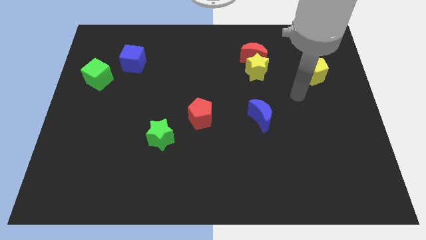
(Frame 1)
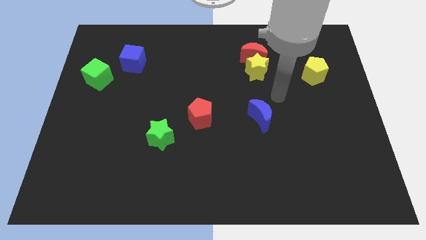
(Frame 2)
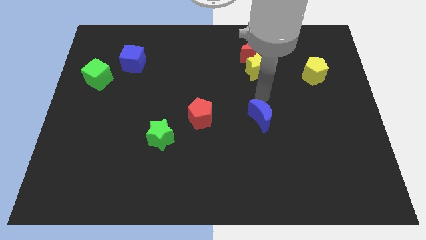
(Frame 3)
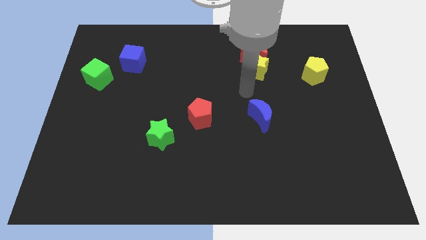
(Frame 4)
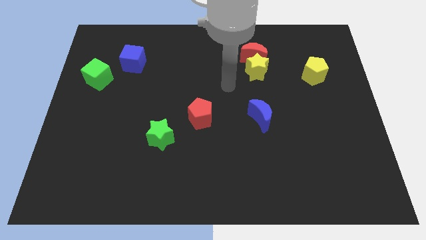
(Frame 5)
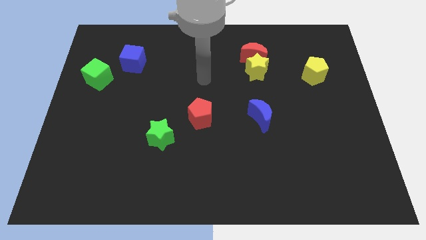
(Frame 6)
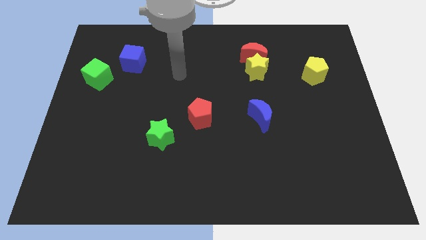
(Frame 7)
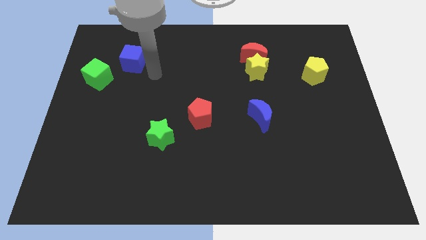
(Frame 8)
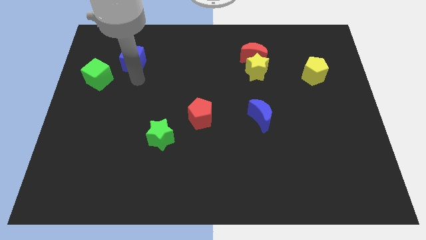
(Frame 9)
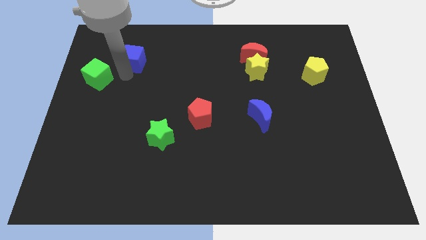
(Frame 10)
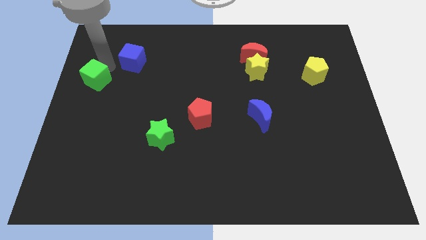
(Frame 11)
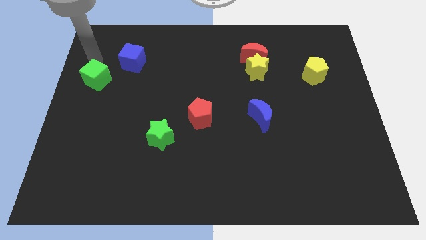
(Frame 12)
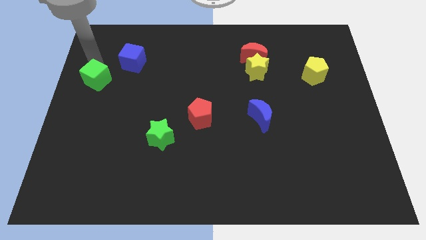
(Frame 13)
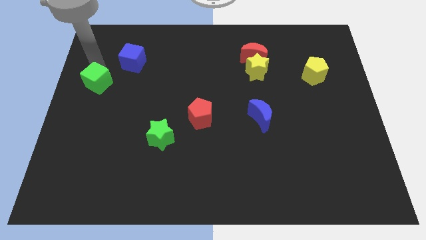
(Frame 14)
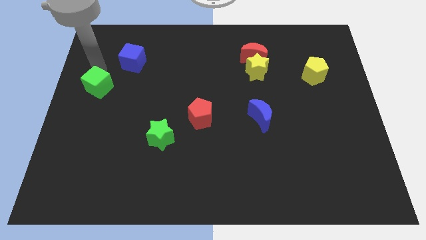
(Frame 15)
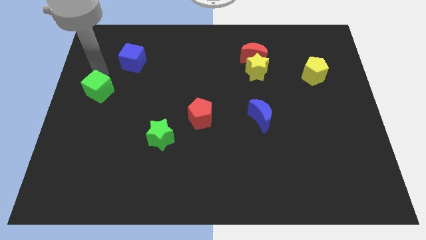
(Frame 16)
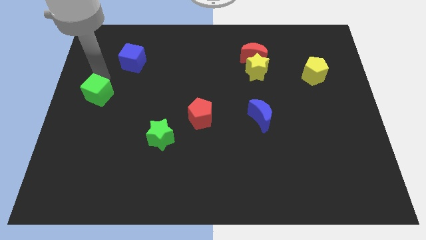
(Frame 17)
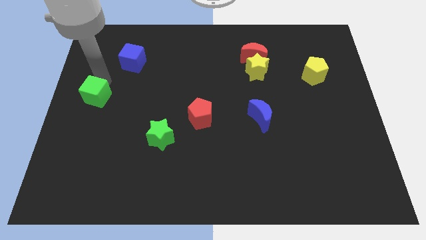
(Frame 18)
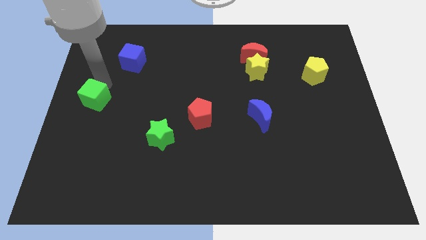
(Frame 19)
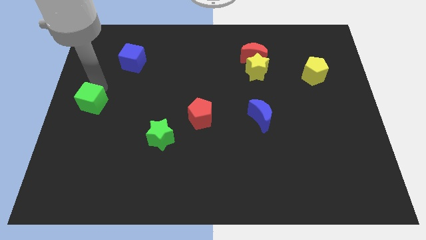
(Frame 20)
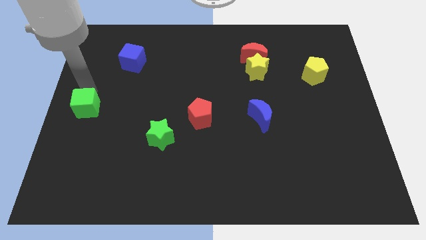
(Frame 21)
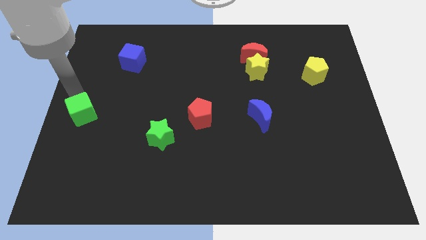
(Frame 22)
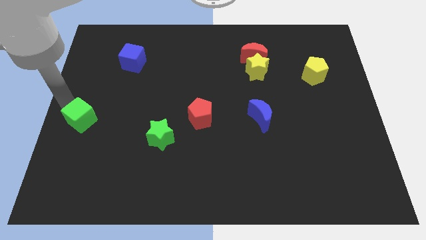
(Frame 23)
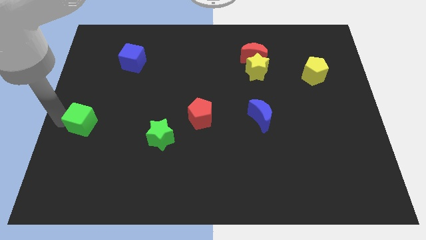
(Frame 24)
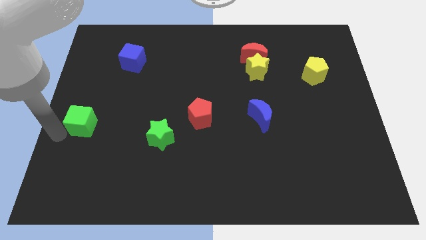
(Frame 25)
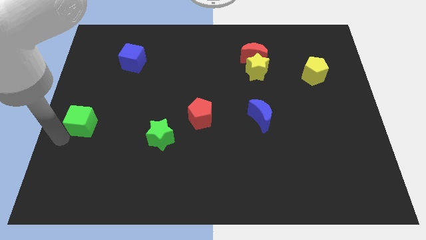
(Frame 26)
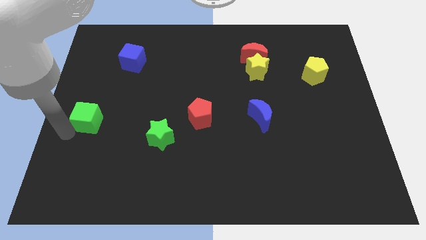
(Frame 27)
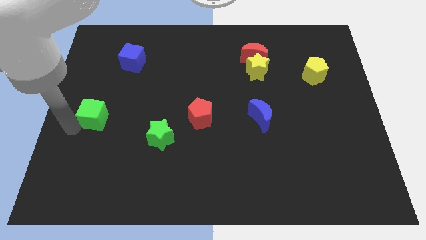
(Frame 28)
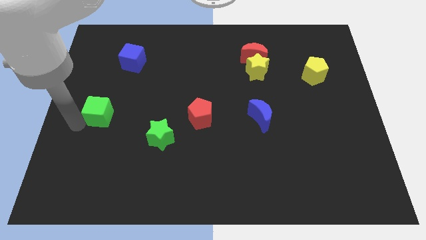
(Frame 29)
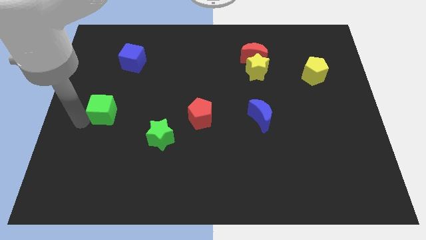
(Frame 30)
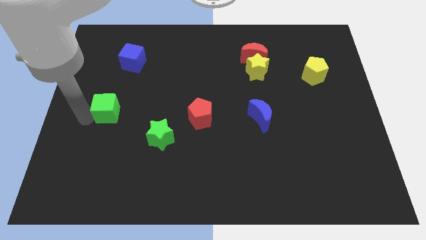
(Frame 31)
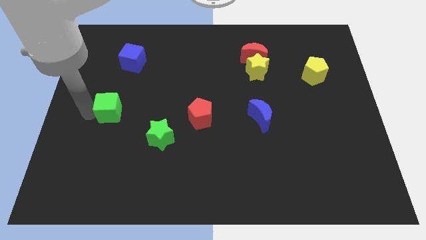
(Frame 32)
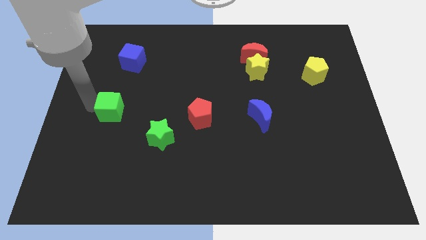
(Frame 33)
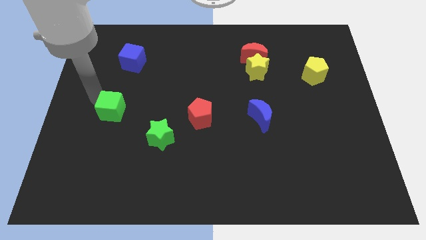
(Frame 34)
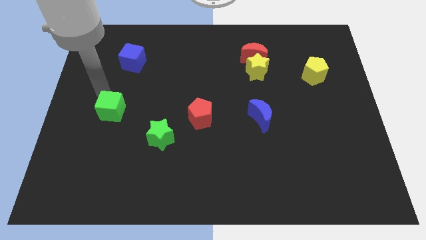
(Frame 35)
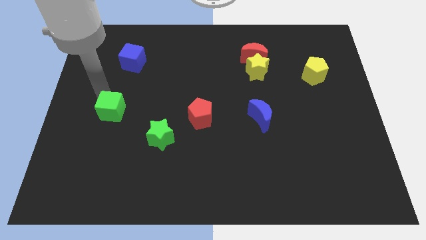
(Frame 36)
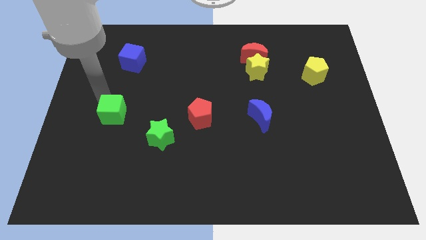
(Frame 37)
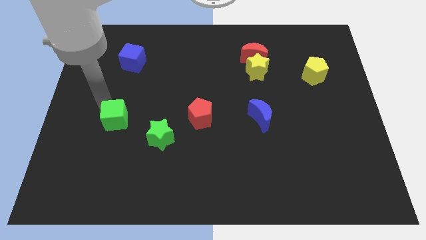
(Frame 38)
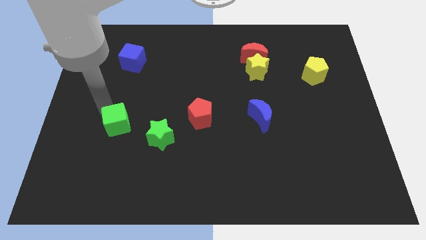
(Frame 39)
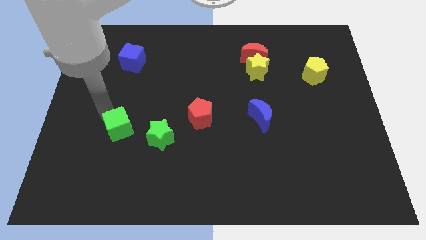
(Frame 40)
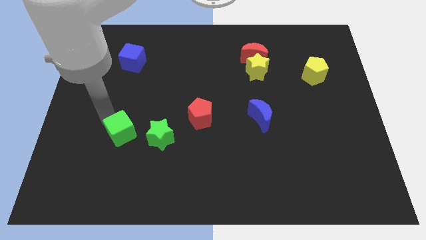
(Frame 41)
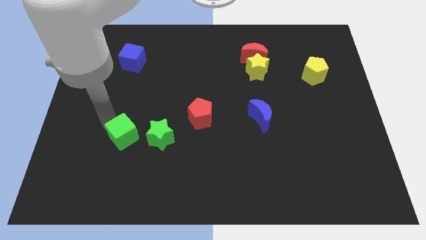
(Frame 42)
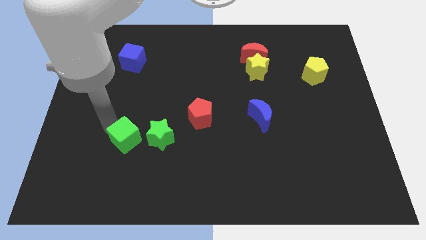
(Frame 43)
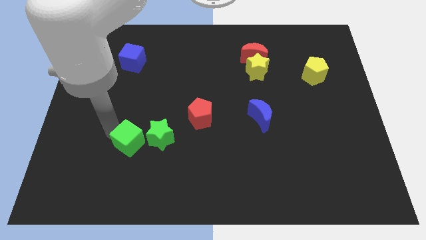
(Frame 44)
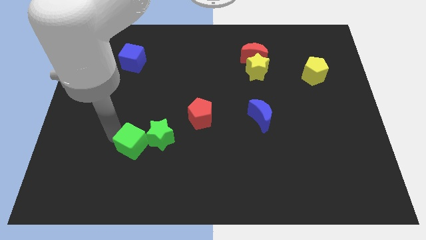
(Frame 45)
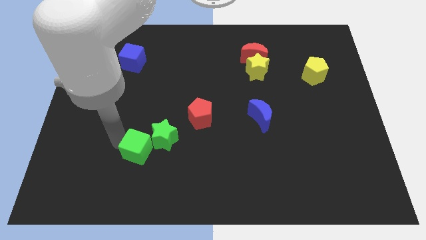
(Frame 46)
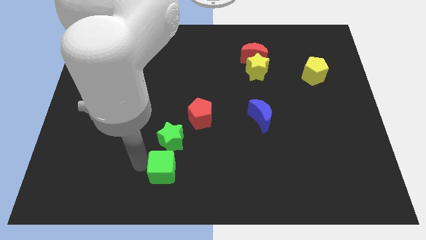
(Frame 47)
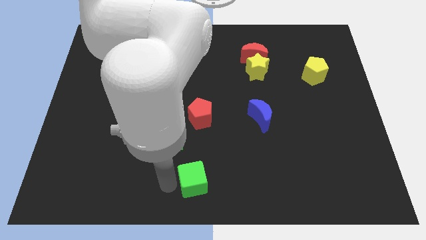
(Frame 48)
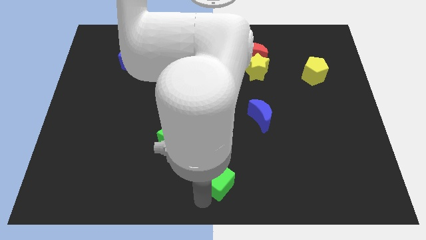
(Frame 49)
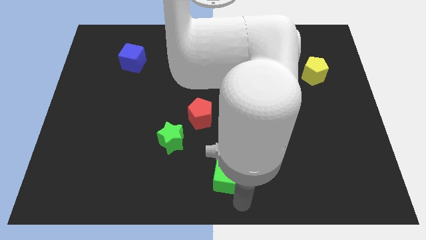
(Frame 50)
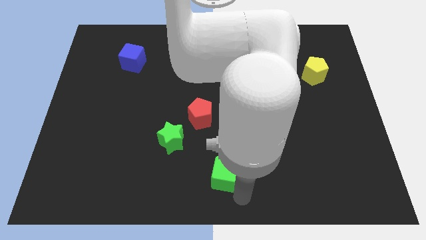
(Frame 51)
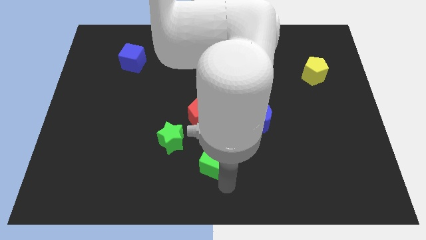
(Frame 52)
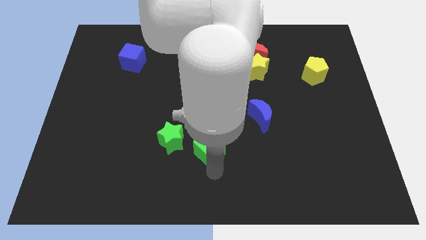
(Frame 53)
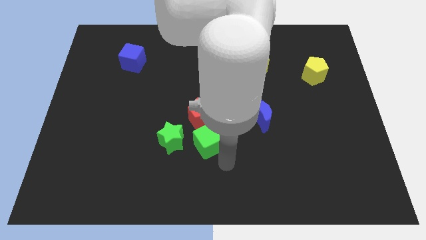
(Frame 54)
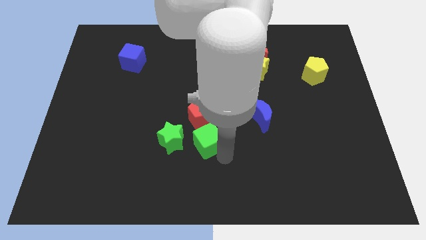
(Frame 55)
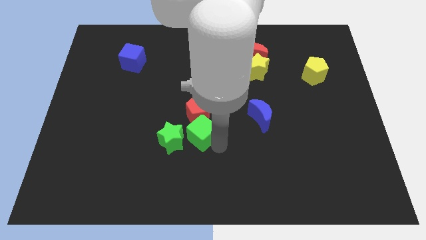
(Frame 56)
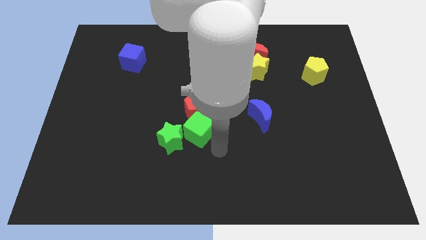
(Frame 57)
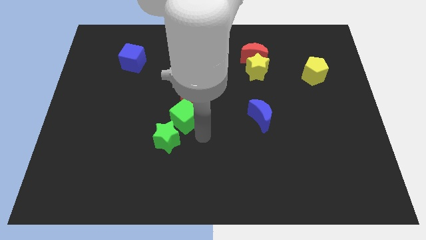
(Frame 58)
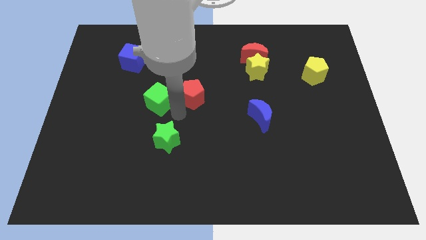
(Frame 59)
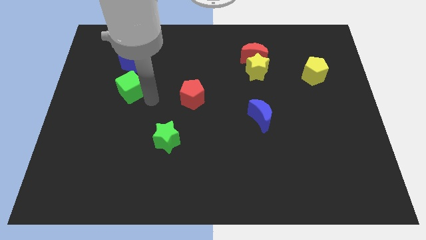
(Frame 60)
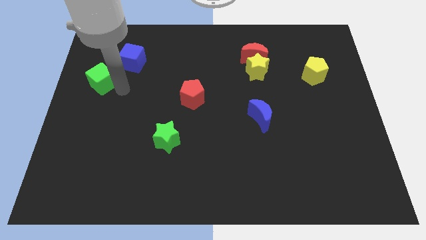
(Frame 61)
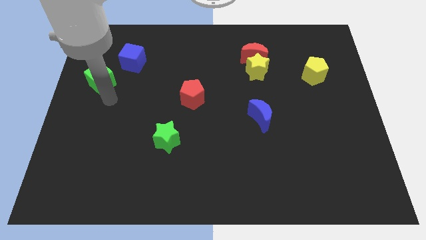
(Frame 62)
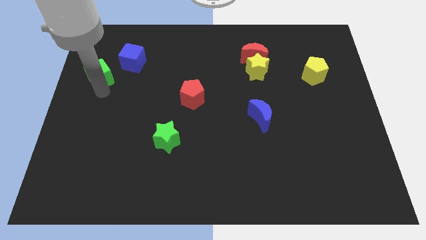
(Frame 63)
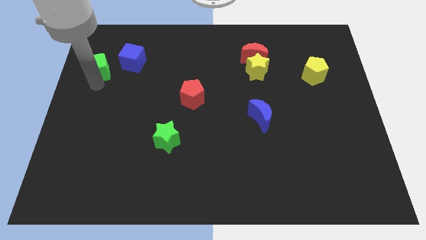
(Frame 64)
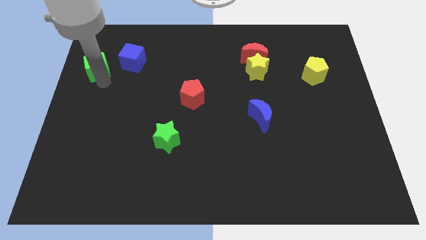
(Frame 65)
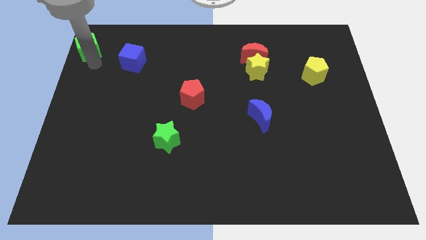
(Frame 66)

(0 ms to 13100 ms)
put the green cube to the top left
